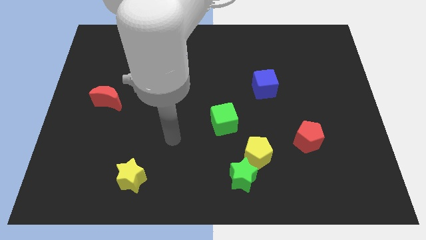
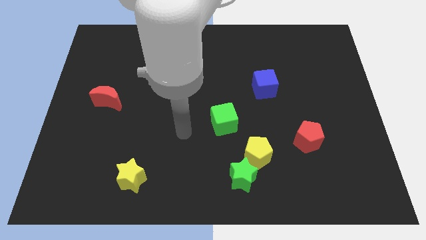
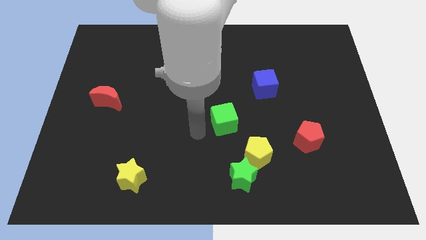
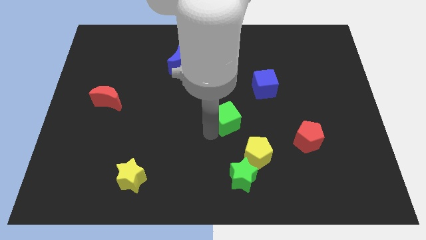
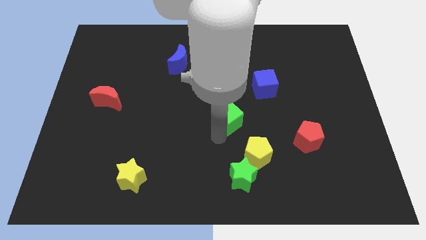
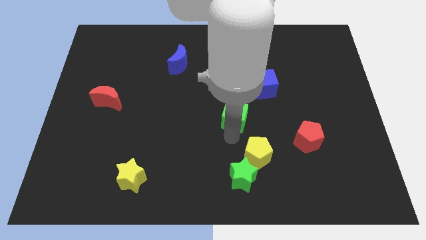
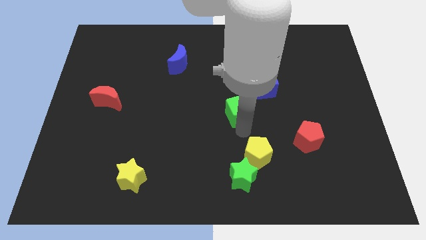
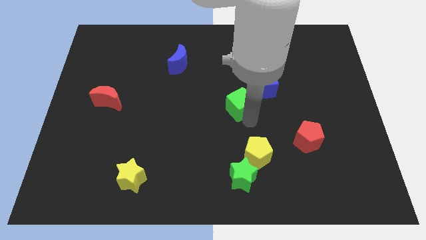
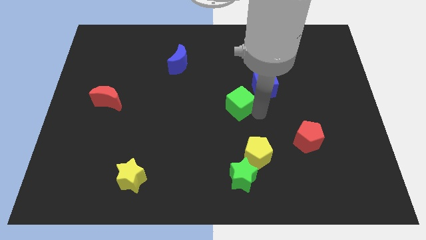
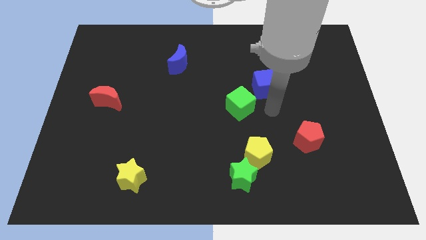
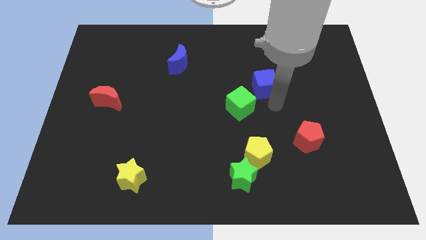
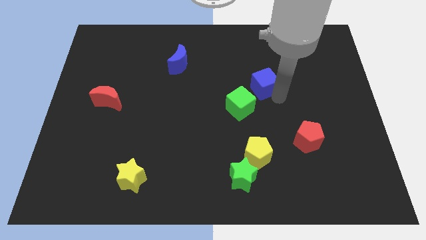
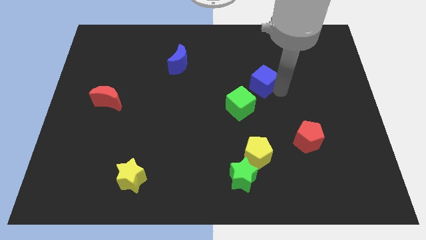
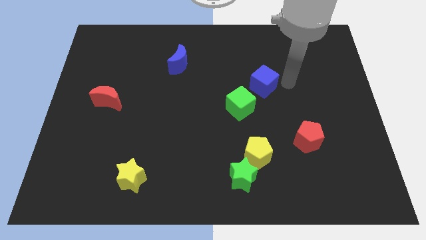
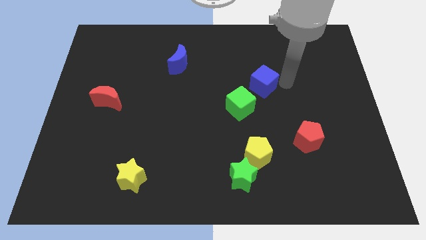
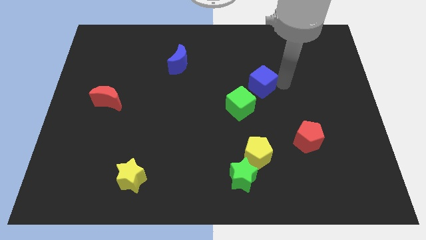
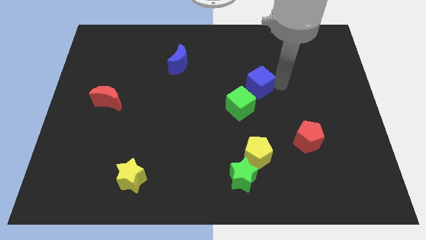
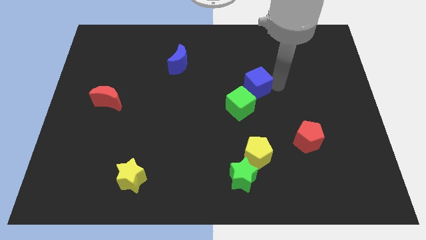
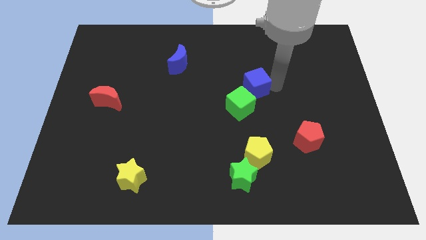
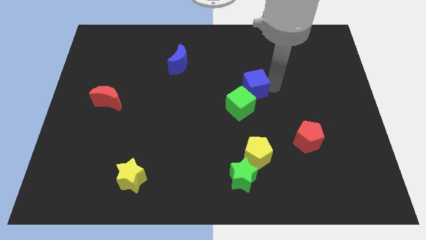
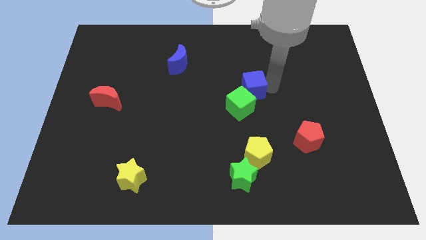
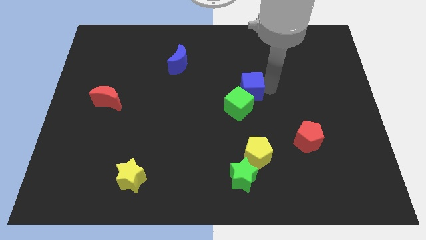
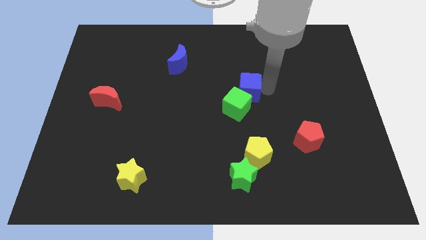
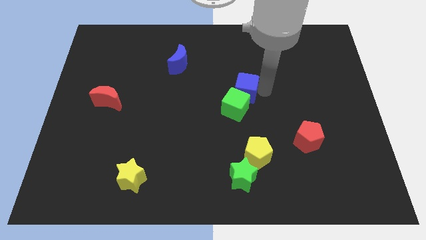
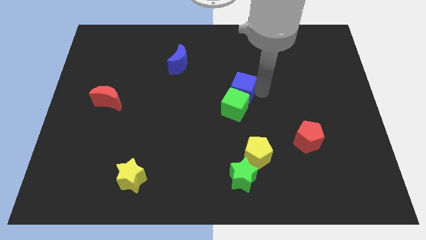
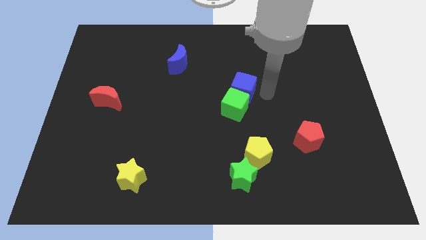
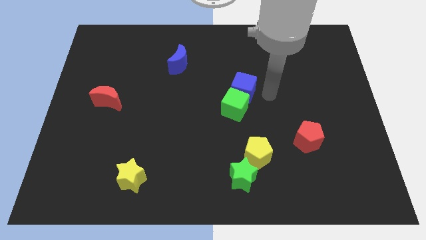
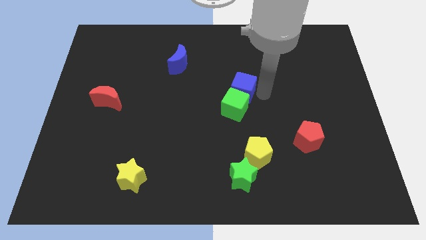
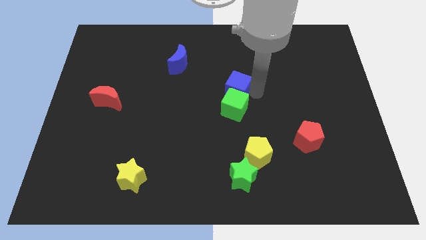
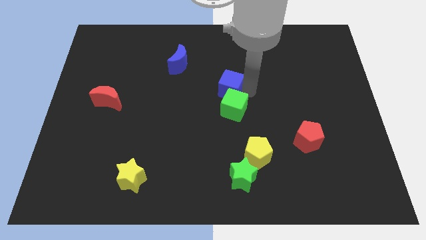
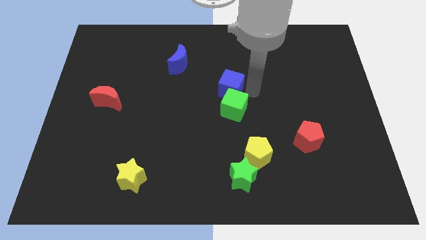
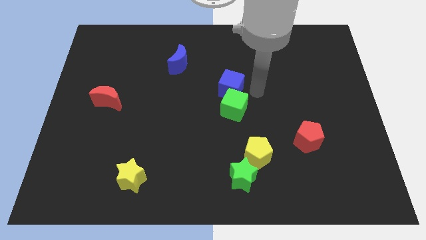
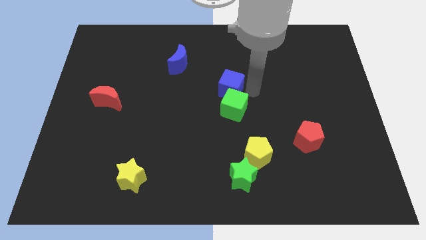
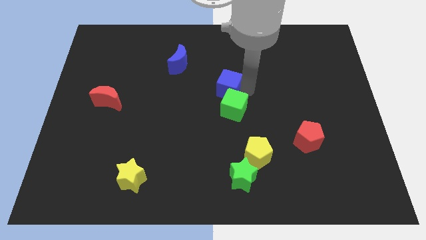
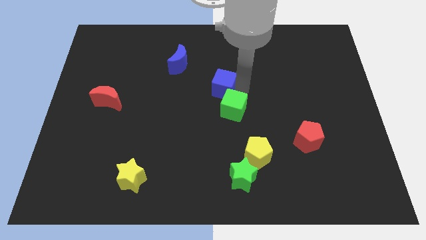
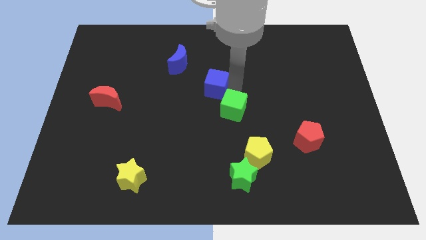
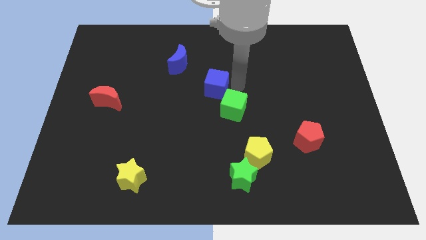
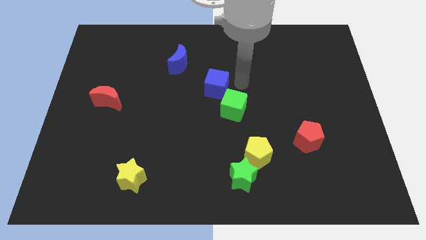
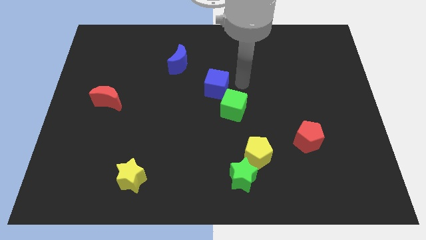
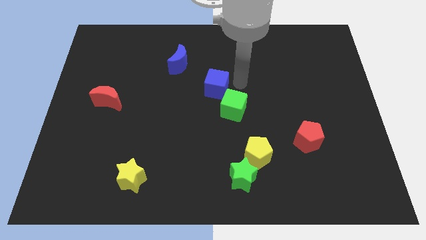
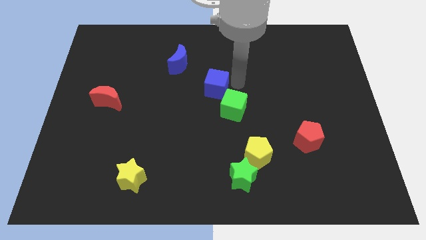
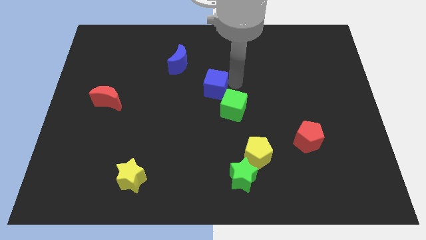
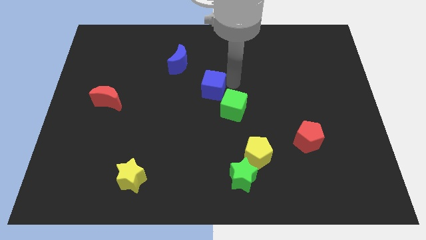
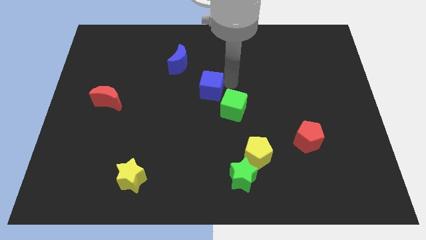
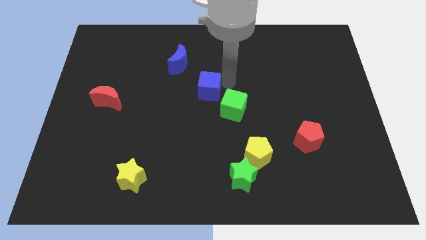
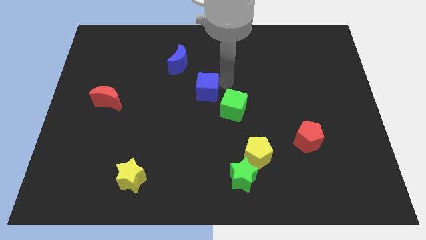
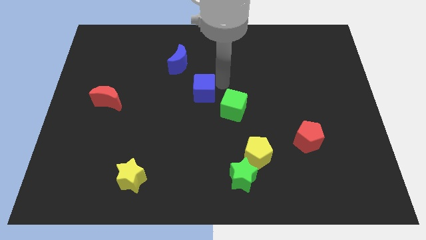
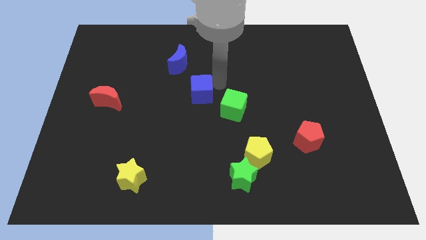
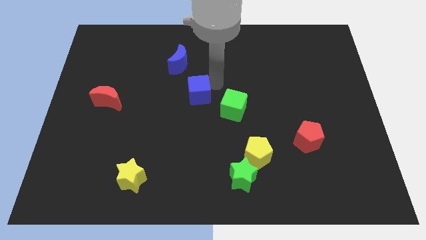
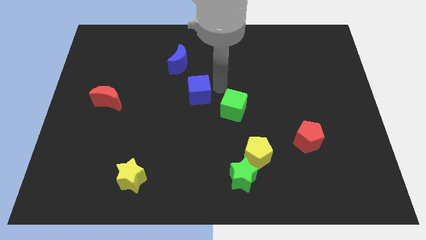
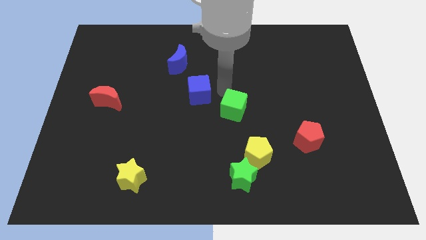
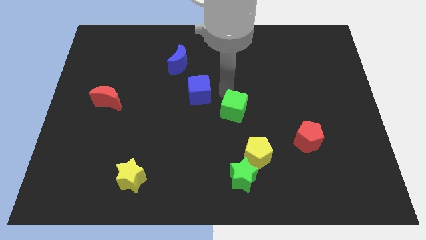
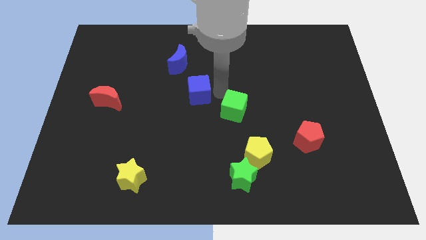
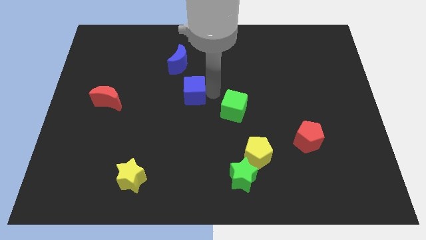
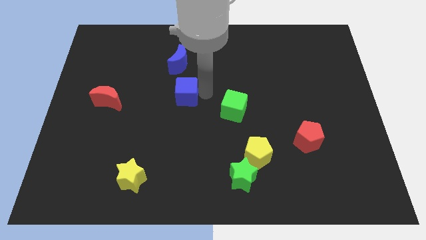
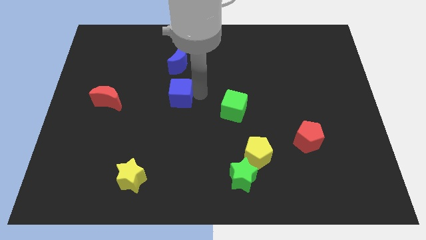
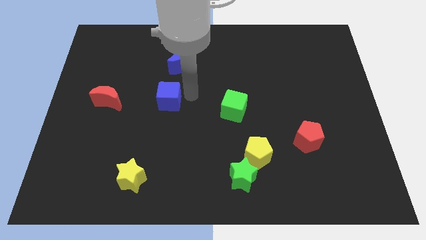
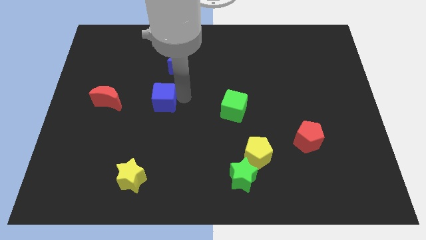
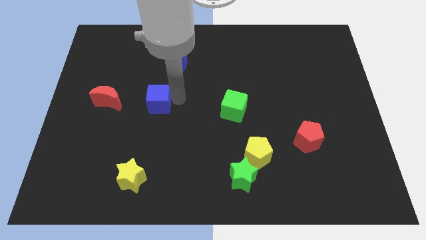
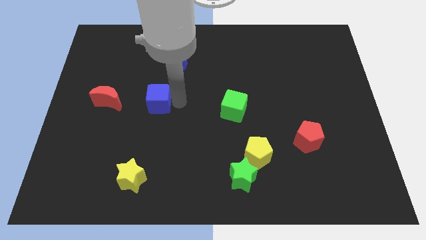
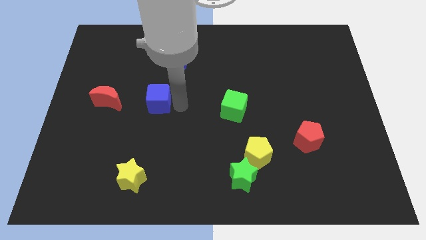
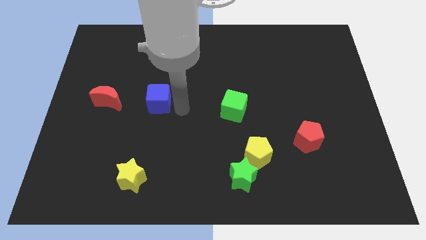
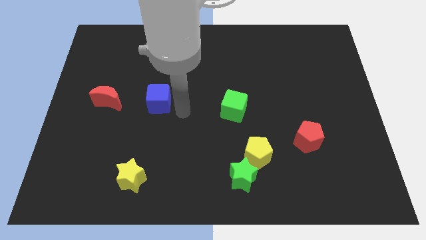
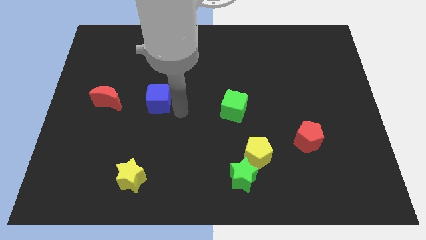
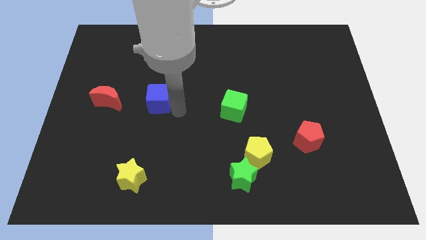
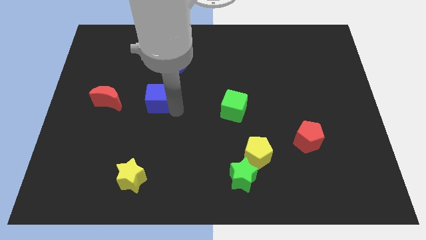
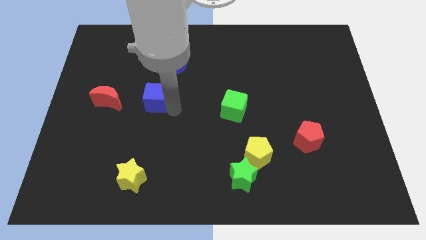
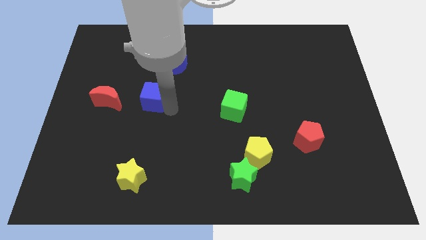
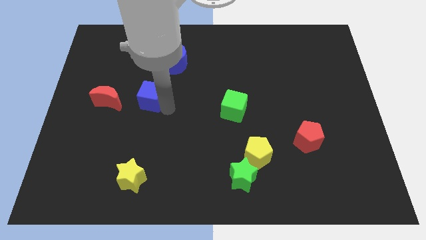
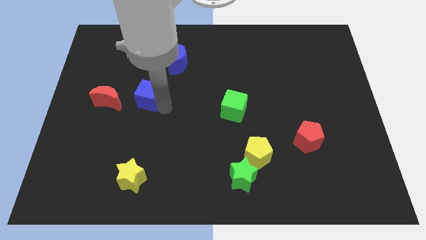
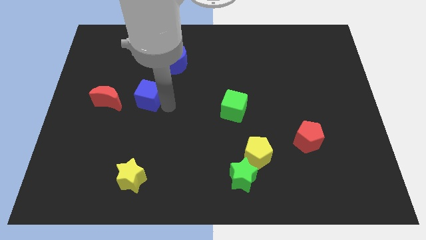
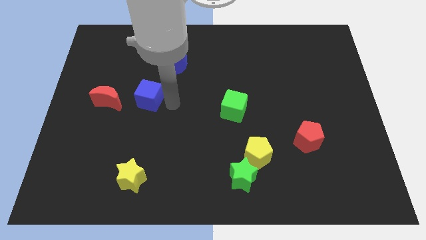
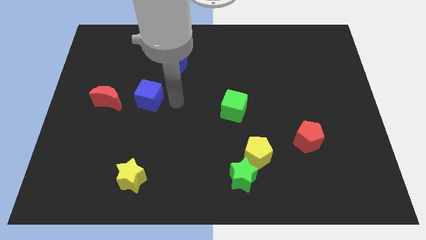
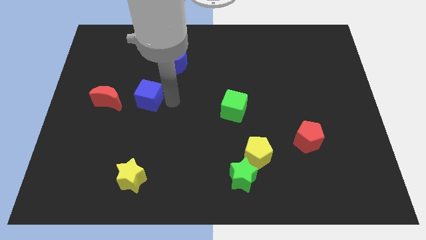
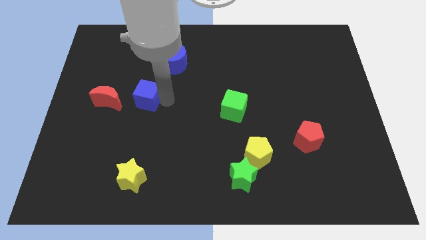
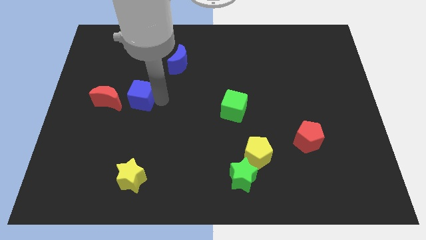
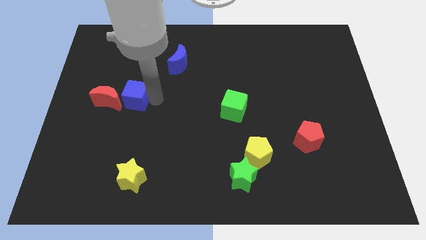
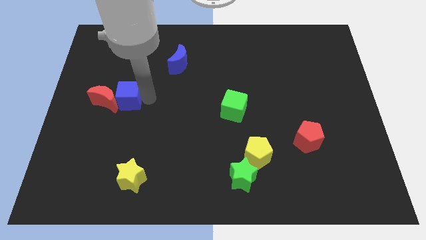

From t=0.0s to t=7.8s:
push the blue cube towards the red moon
